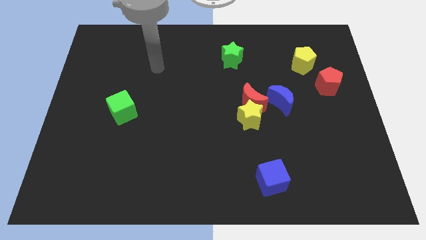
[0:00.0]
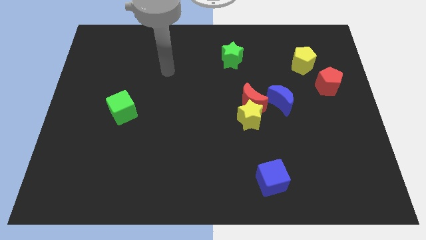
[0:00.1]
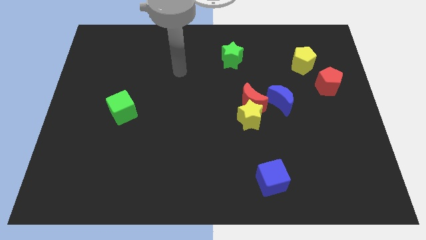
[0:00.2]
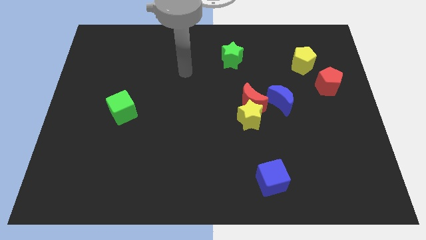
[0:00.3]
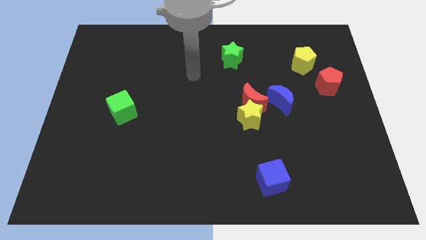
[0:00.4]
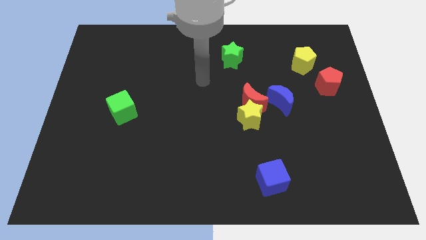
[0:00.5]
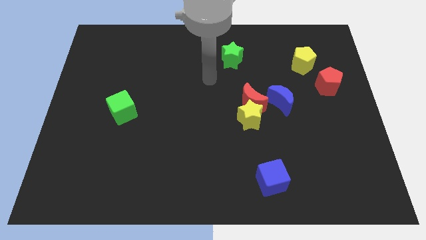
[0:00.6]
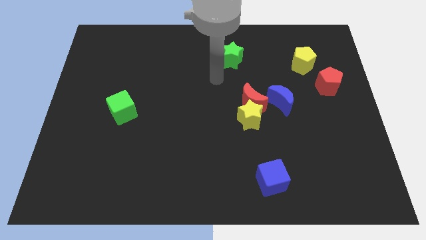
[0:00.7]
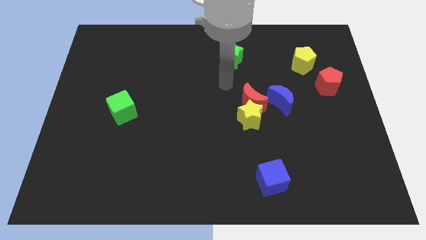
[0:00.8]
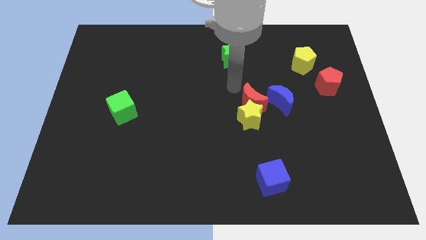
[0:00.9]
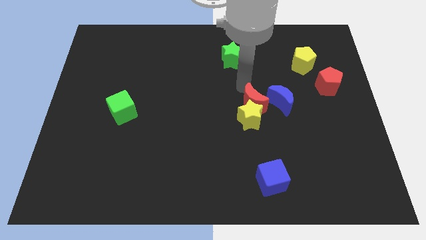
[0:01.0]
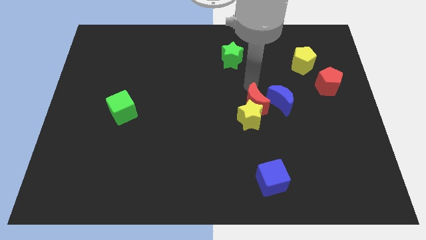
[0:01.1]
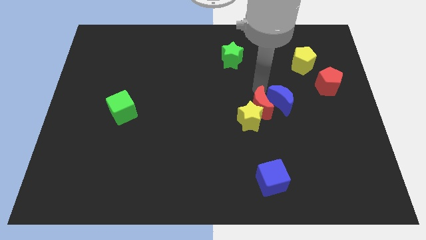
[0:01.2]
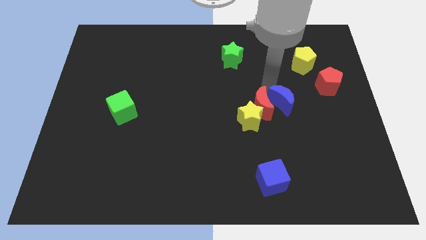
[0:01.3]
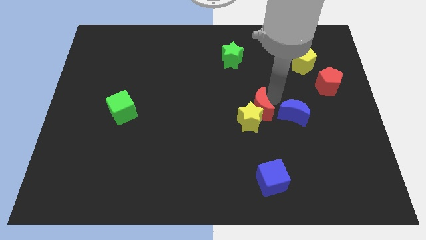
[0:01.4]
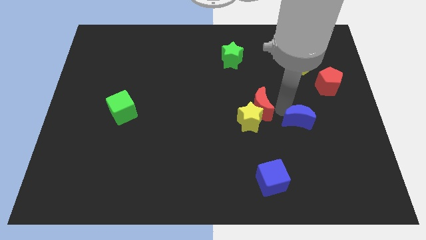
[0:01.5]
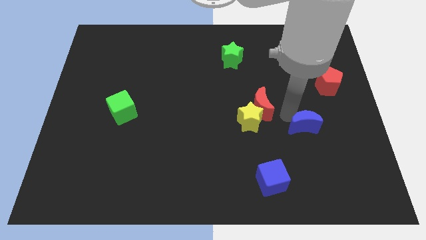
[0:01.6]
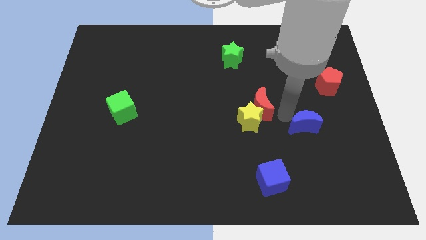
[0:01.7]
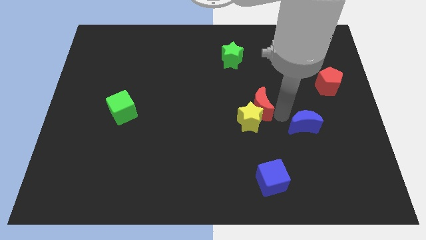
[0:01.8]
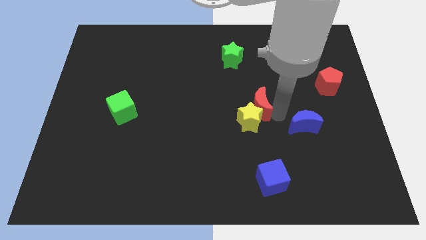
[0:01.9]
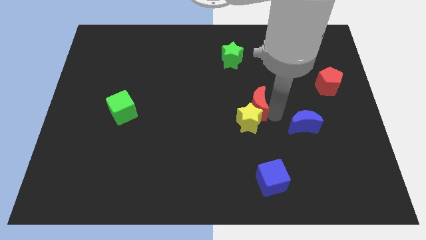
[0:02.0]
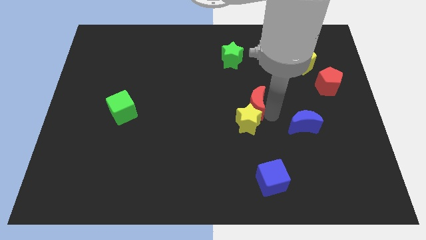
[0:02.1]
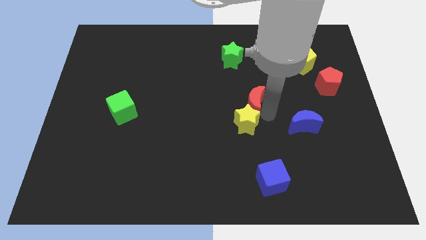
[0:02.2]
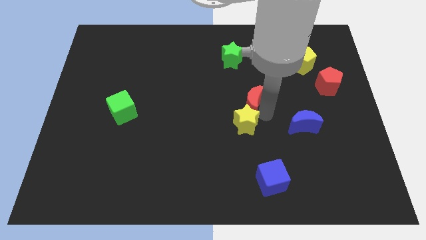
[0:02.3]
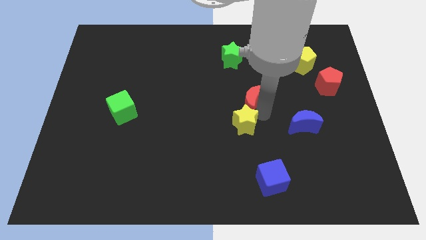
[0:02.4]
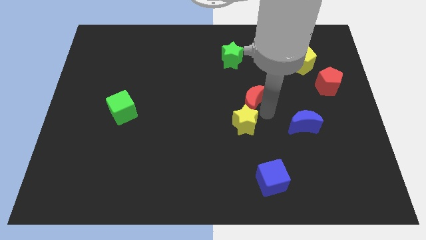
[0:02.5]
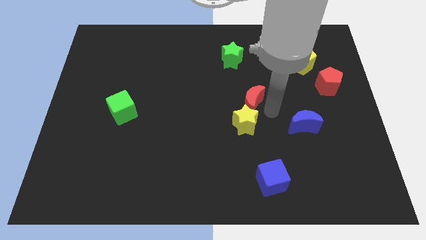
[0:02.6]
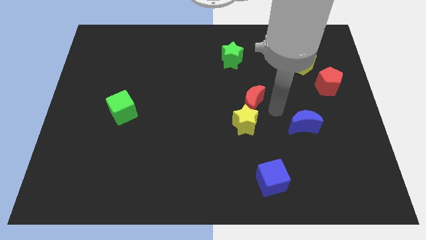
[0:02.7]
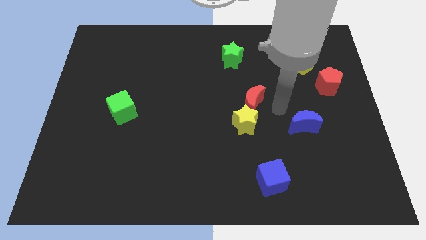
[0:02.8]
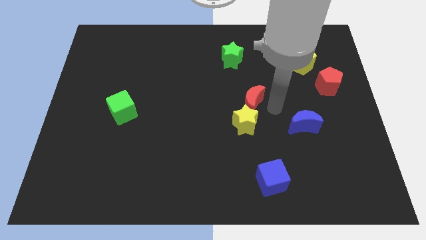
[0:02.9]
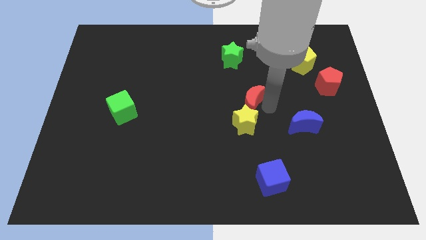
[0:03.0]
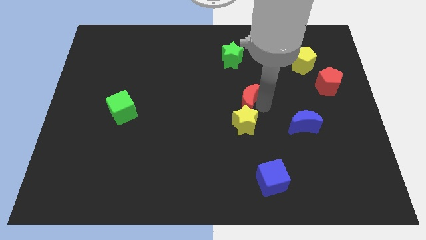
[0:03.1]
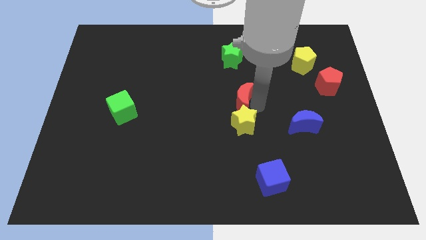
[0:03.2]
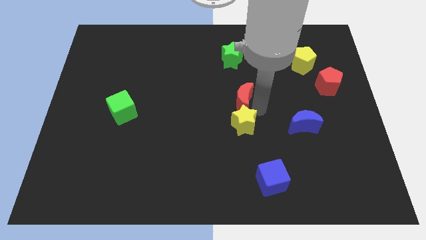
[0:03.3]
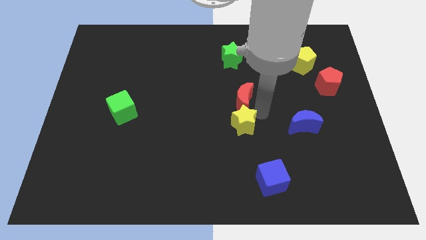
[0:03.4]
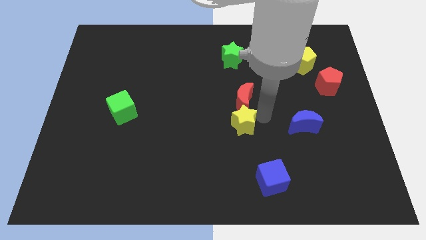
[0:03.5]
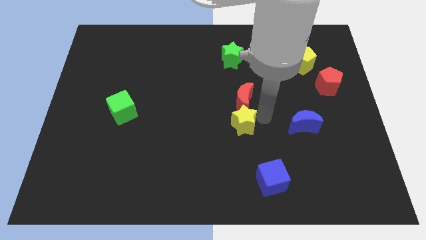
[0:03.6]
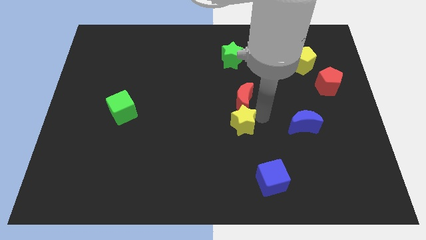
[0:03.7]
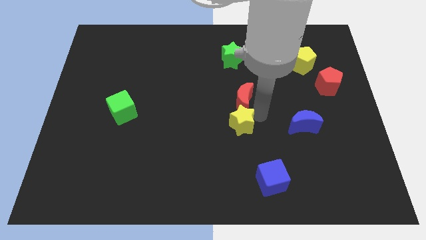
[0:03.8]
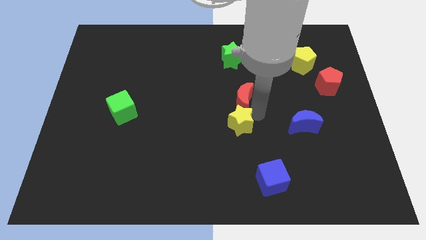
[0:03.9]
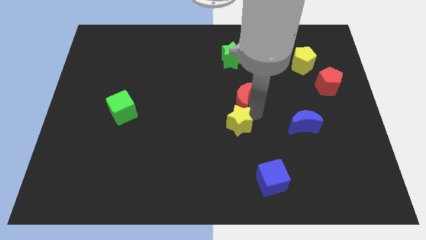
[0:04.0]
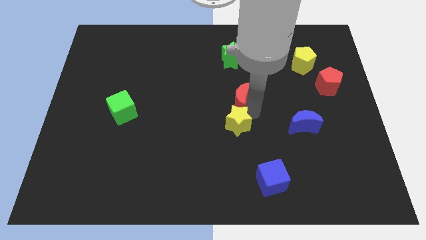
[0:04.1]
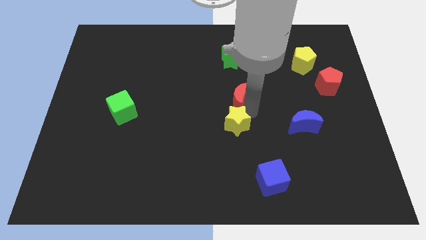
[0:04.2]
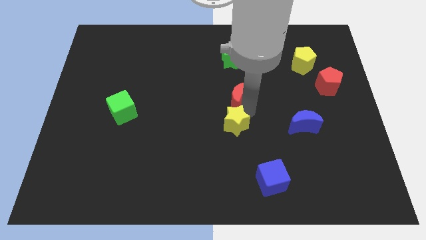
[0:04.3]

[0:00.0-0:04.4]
move the red moon away from the yellow star and blue moon

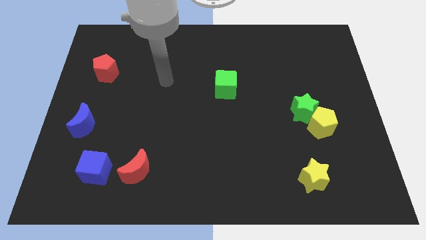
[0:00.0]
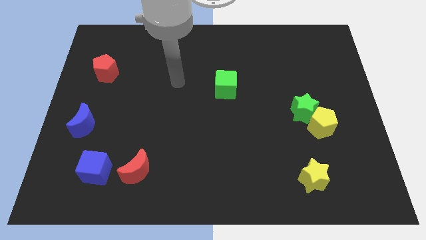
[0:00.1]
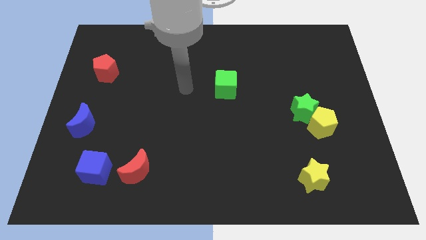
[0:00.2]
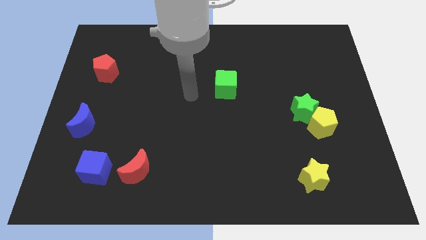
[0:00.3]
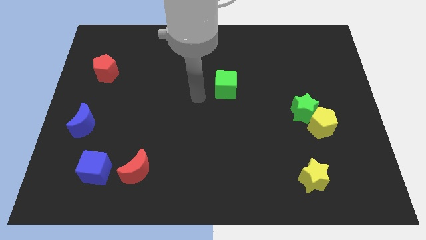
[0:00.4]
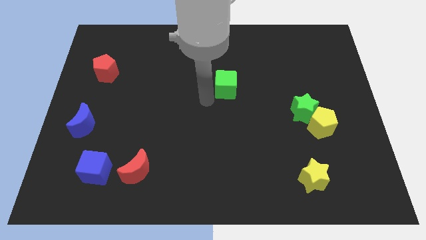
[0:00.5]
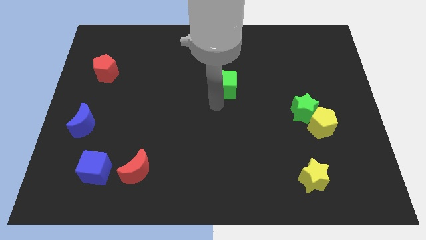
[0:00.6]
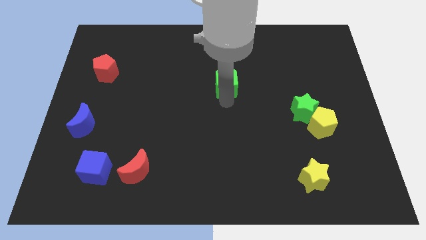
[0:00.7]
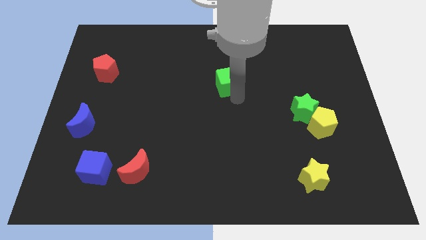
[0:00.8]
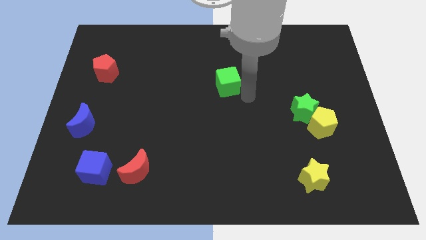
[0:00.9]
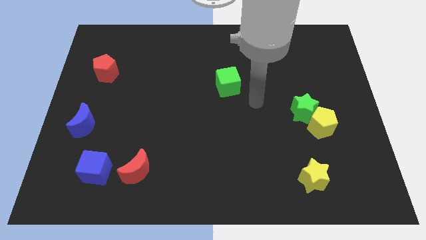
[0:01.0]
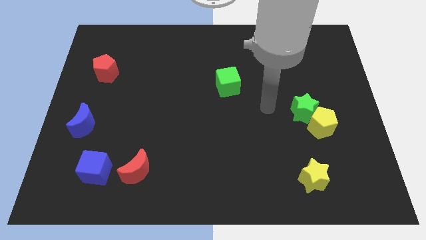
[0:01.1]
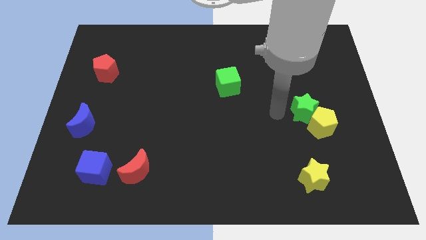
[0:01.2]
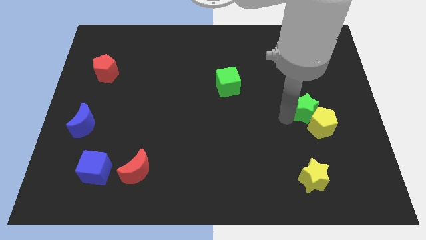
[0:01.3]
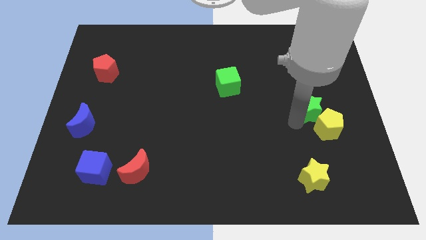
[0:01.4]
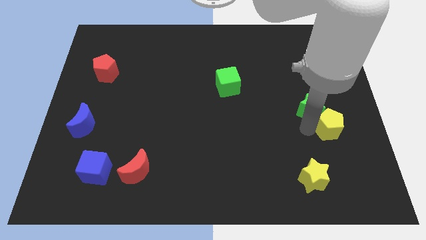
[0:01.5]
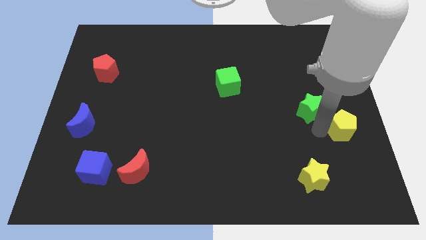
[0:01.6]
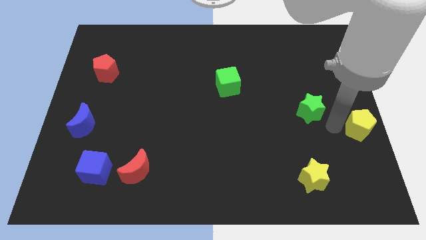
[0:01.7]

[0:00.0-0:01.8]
move the green star away from the yellow pentagon

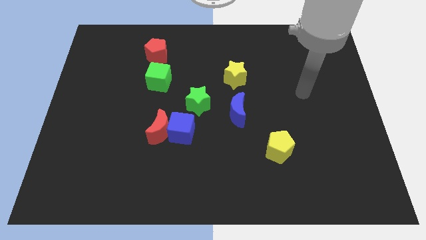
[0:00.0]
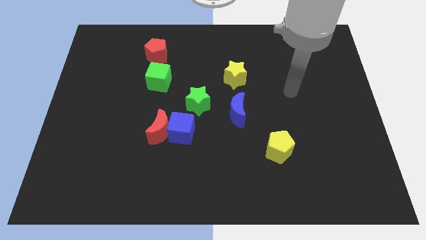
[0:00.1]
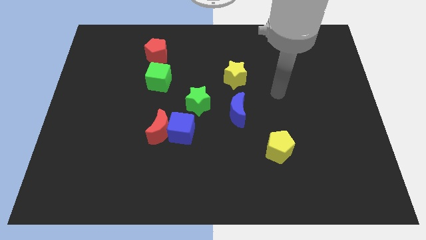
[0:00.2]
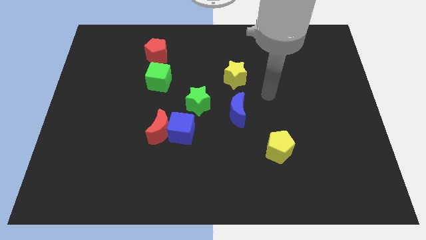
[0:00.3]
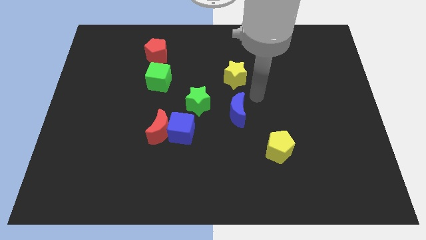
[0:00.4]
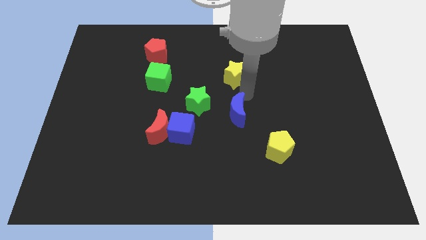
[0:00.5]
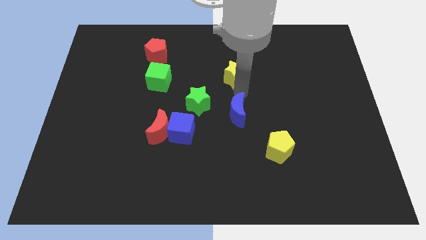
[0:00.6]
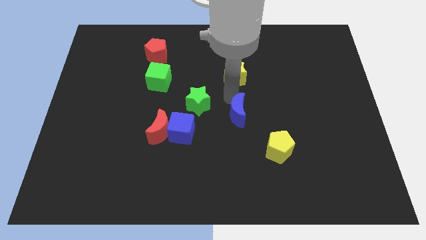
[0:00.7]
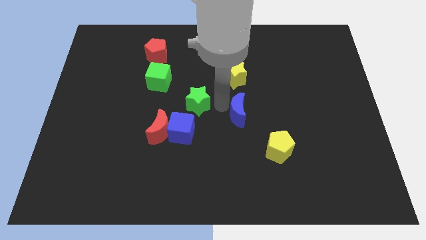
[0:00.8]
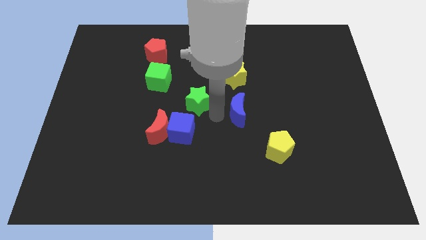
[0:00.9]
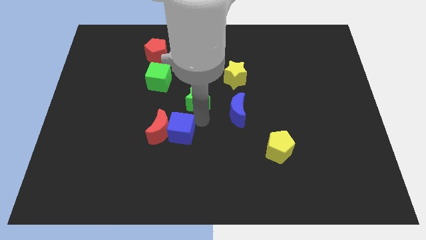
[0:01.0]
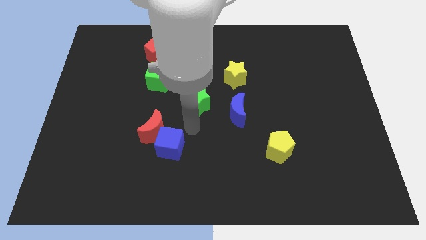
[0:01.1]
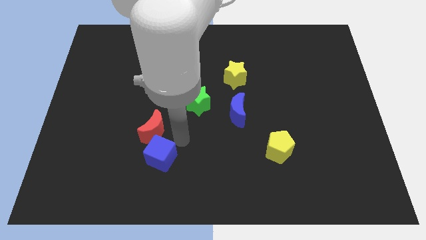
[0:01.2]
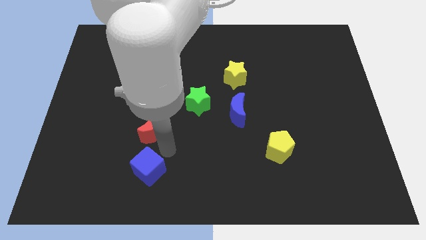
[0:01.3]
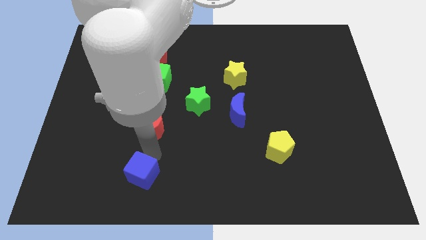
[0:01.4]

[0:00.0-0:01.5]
pull the red moon apart from the blue cube

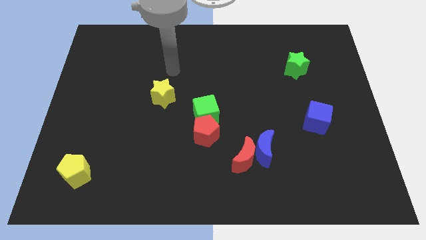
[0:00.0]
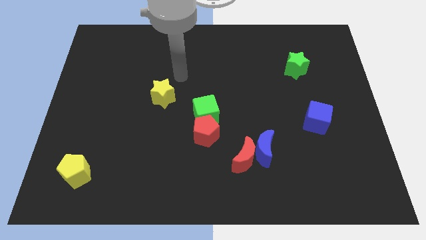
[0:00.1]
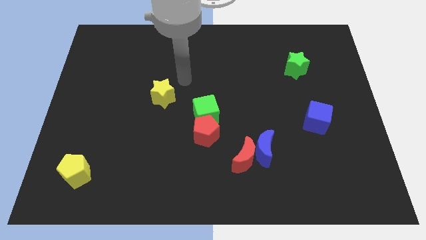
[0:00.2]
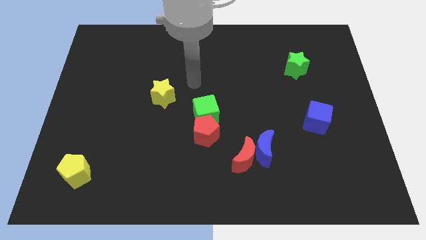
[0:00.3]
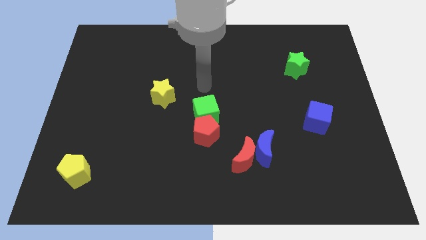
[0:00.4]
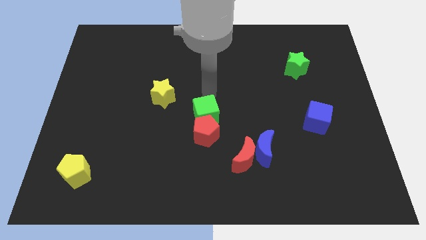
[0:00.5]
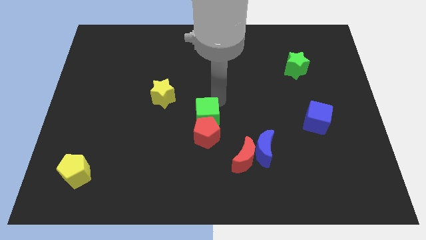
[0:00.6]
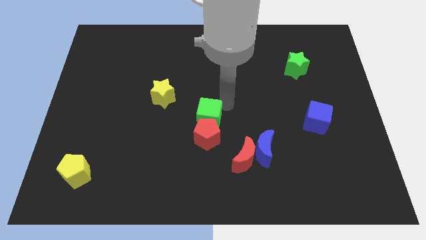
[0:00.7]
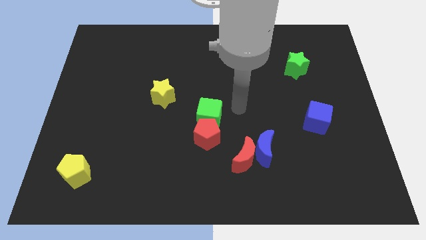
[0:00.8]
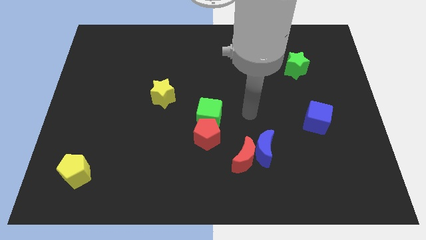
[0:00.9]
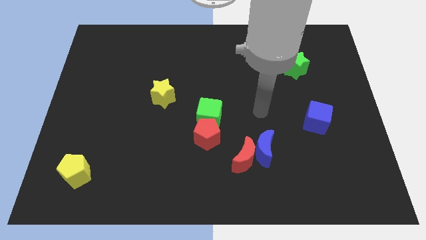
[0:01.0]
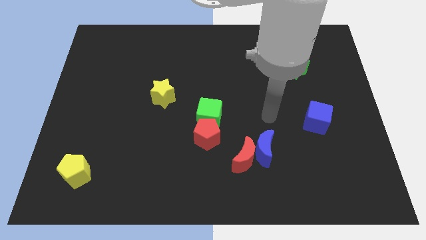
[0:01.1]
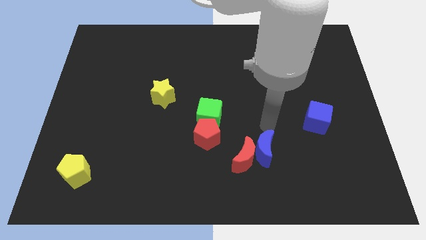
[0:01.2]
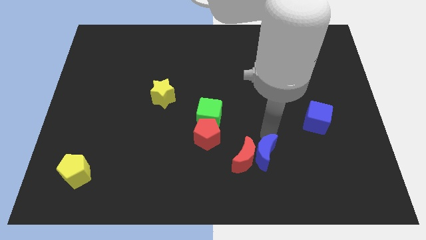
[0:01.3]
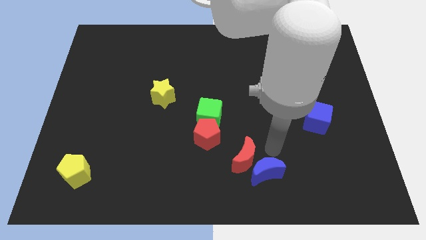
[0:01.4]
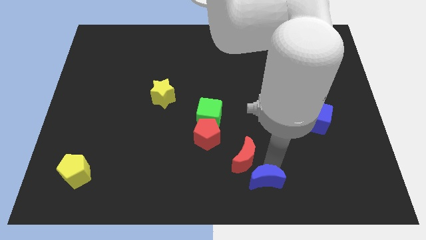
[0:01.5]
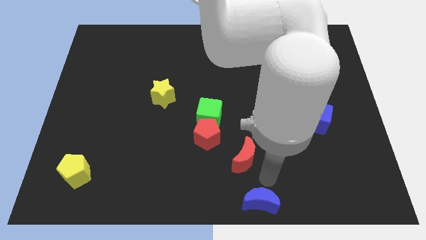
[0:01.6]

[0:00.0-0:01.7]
move the red moon away from the blue moon
